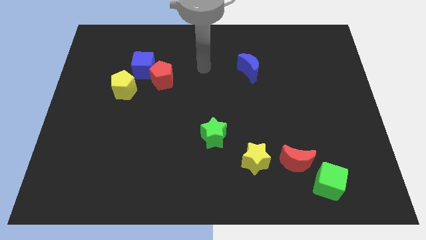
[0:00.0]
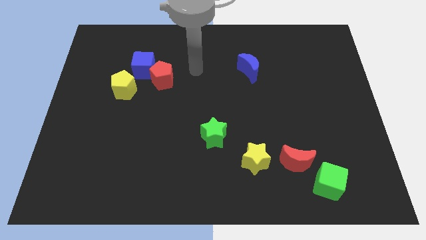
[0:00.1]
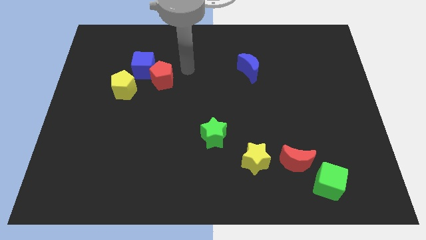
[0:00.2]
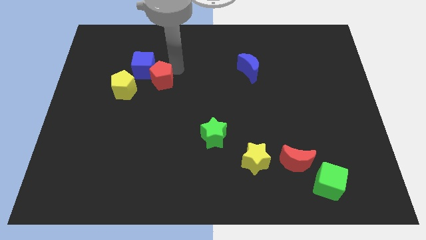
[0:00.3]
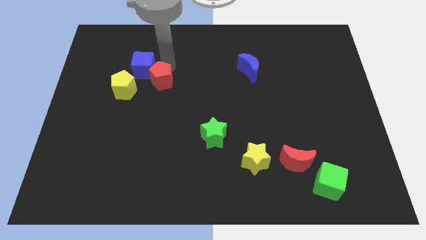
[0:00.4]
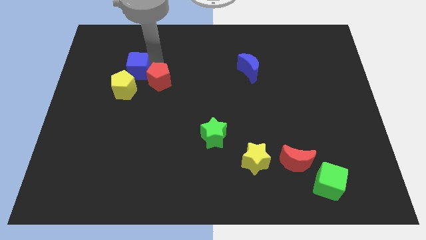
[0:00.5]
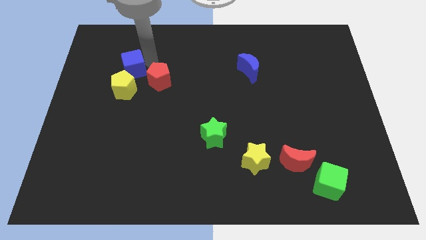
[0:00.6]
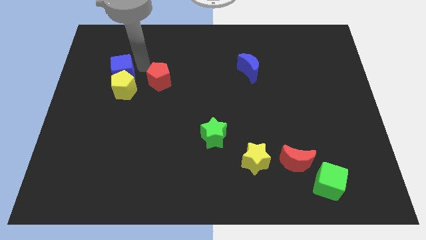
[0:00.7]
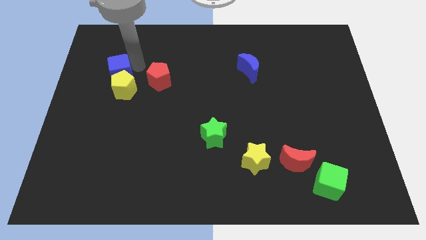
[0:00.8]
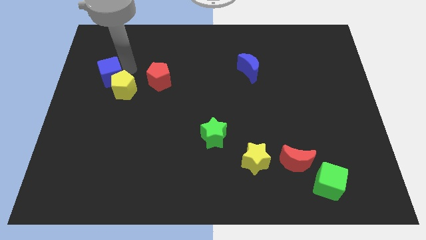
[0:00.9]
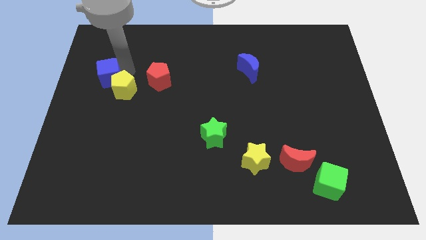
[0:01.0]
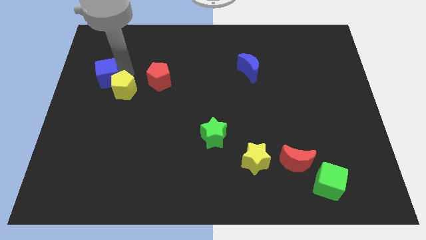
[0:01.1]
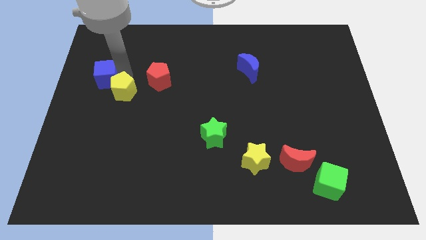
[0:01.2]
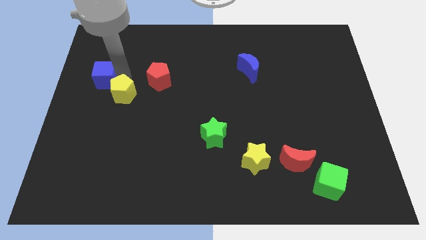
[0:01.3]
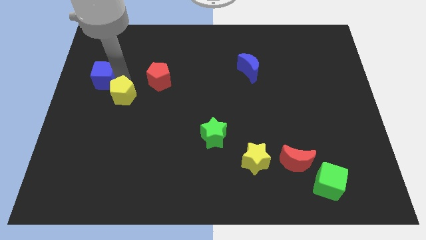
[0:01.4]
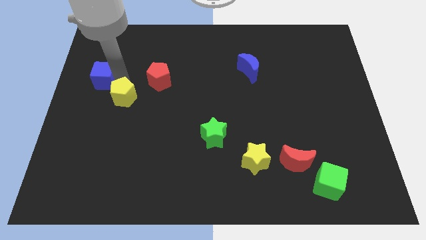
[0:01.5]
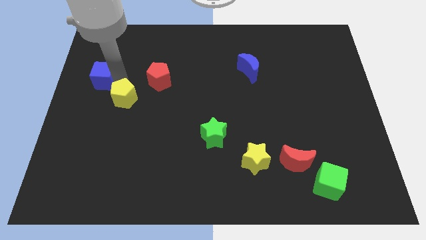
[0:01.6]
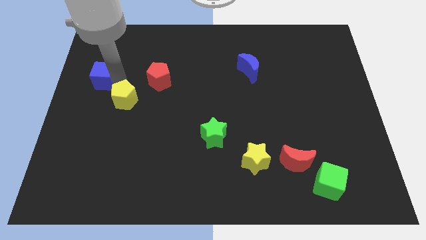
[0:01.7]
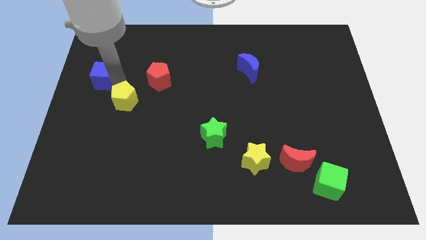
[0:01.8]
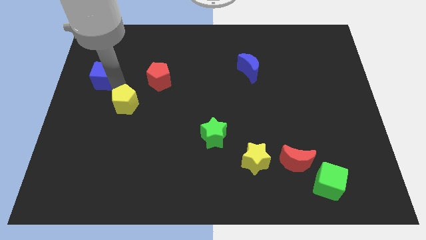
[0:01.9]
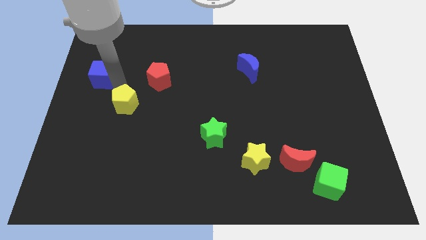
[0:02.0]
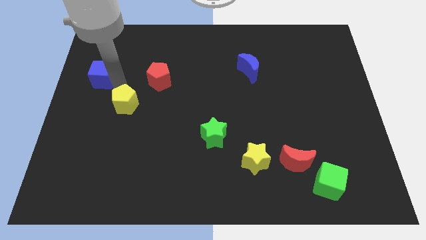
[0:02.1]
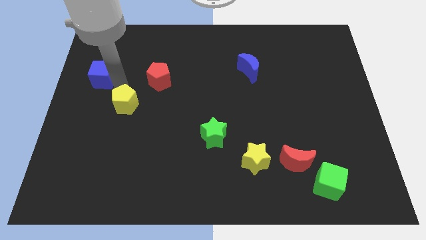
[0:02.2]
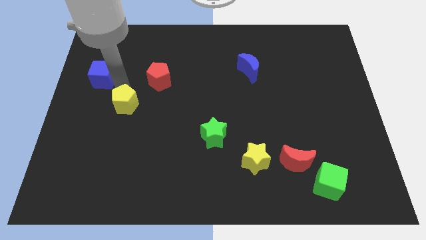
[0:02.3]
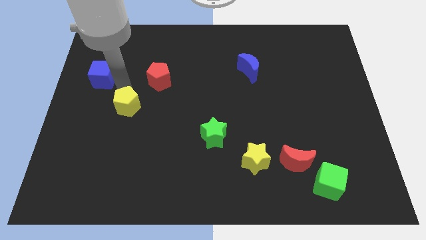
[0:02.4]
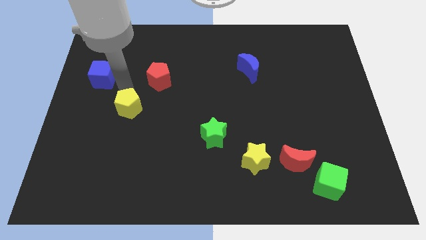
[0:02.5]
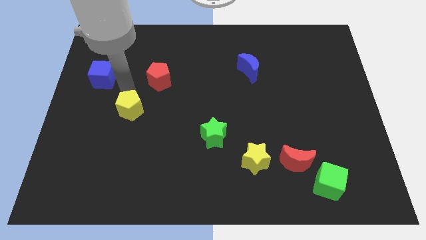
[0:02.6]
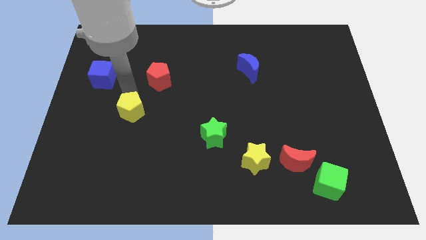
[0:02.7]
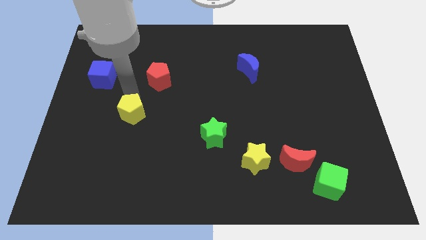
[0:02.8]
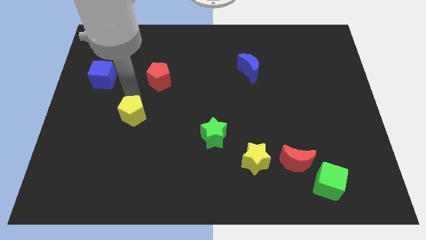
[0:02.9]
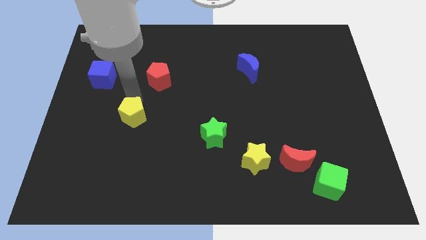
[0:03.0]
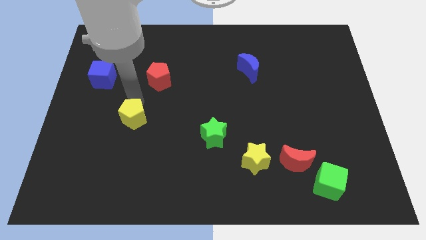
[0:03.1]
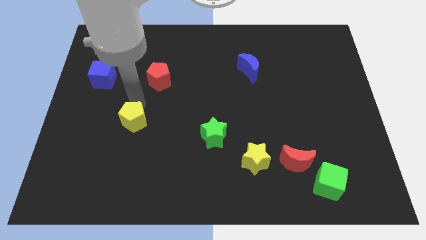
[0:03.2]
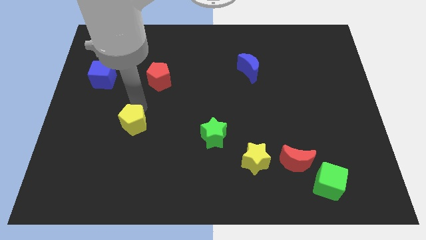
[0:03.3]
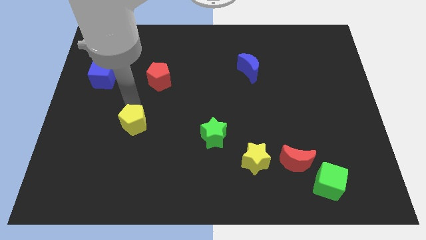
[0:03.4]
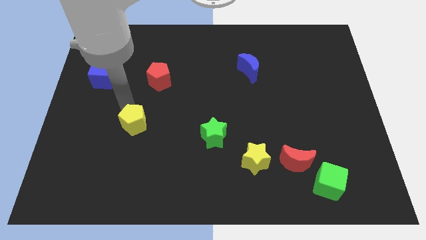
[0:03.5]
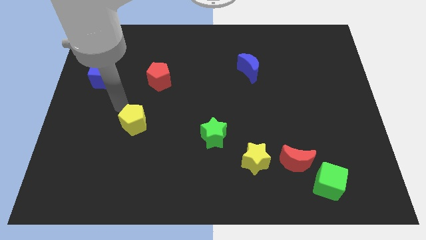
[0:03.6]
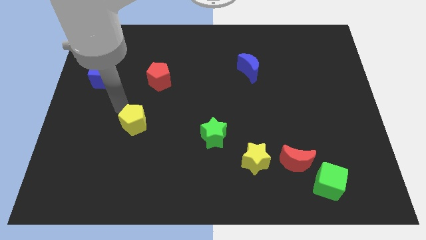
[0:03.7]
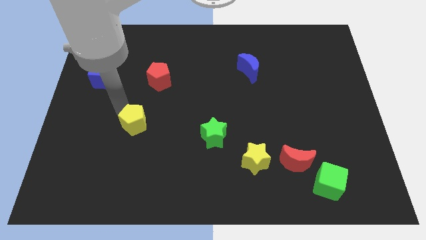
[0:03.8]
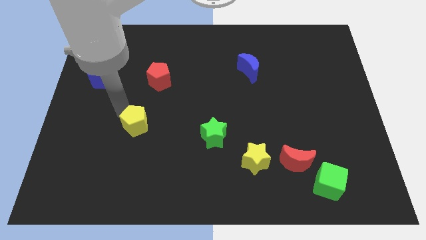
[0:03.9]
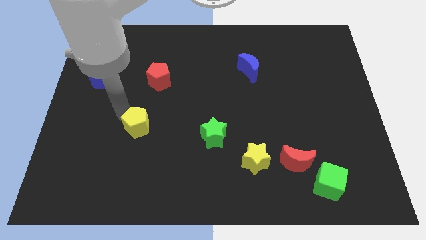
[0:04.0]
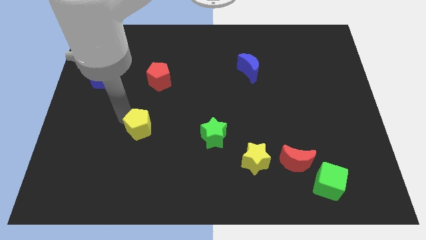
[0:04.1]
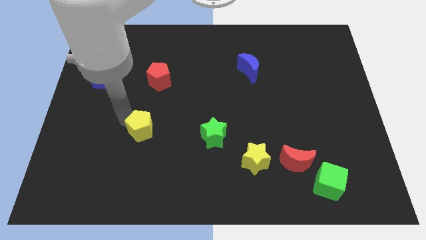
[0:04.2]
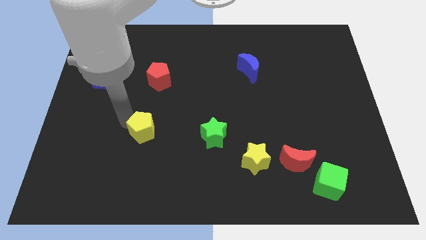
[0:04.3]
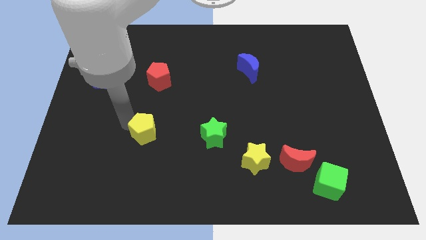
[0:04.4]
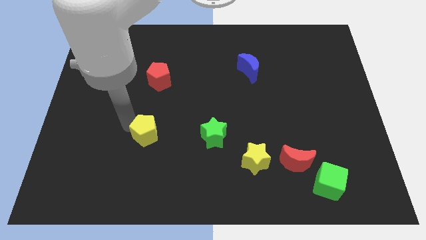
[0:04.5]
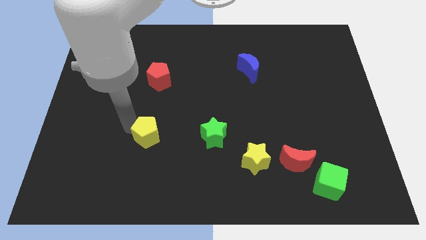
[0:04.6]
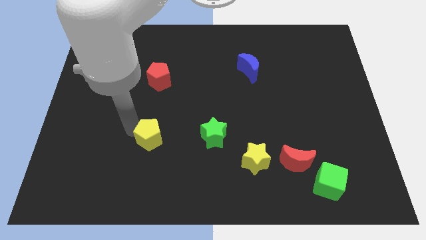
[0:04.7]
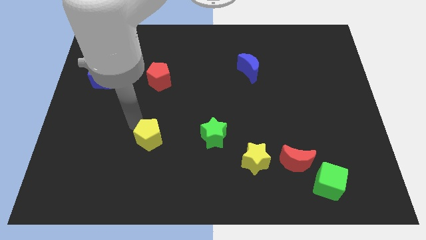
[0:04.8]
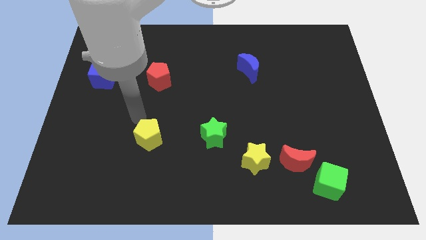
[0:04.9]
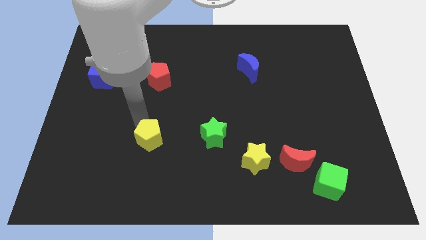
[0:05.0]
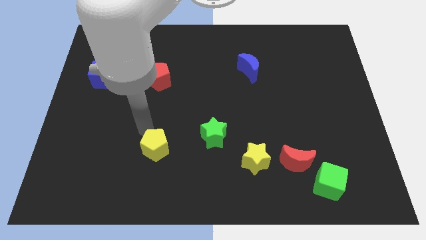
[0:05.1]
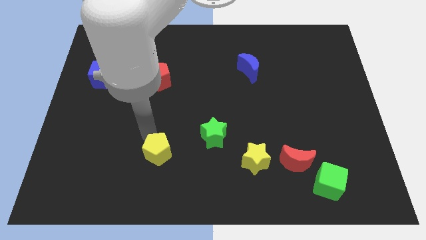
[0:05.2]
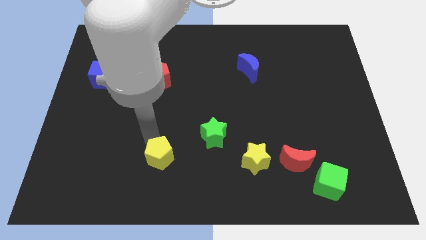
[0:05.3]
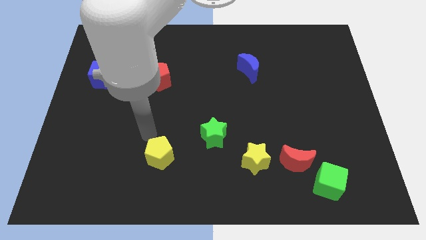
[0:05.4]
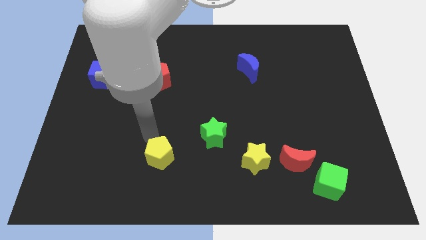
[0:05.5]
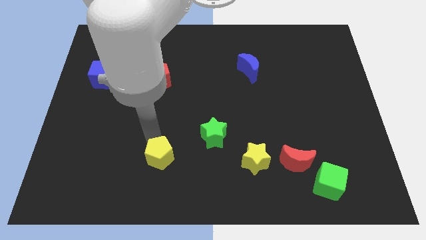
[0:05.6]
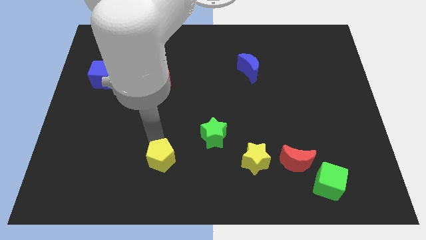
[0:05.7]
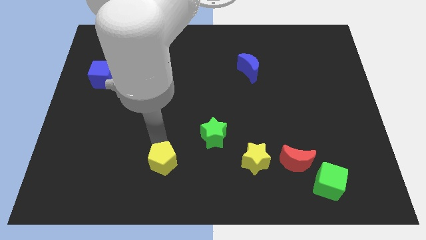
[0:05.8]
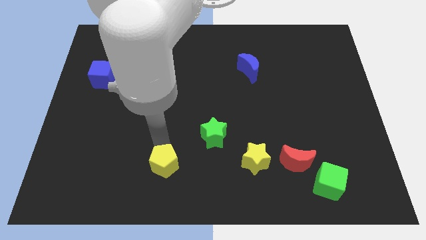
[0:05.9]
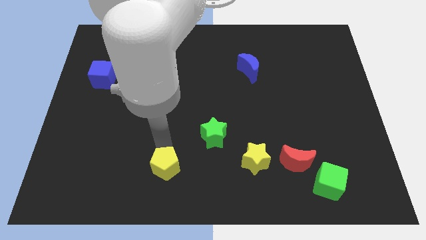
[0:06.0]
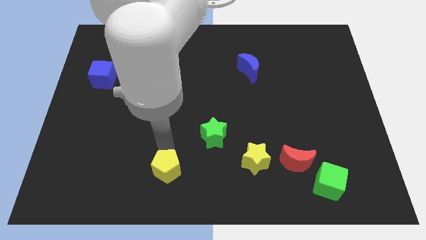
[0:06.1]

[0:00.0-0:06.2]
move the yellow pentagon to the bottom side
